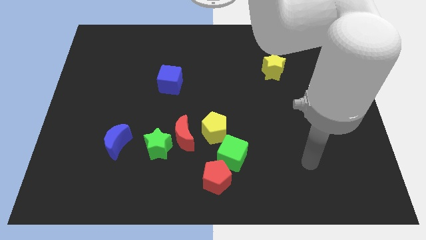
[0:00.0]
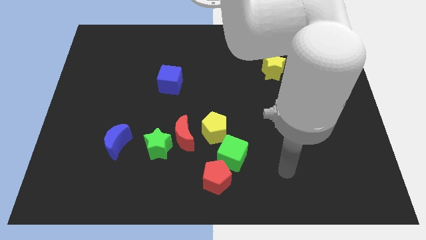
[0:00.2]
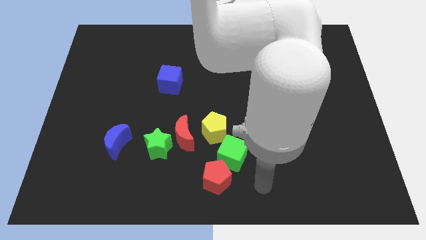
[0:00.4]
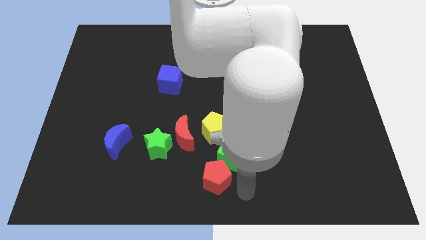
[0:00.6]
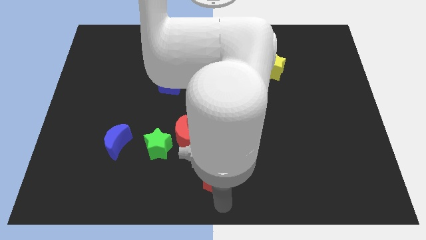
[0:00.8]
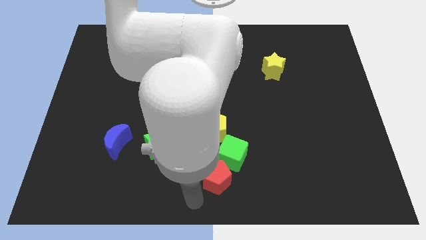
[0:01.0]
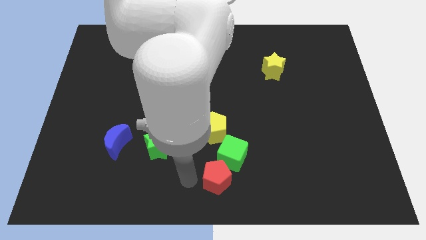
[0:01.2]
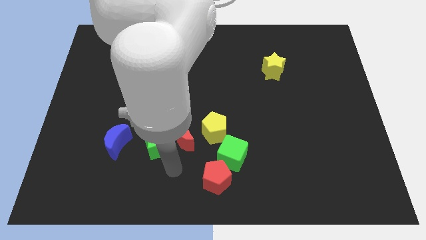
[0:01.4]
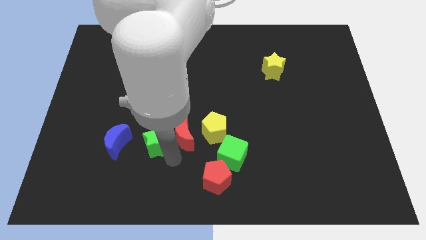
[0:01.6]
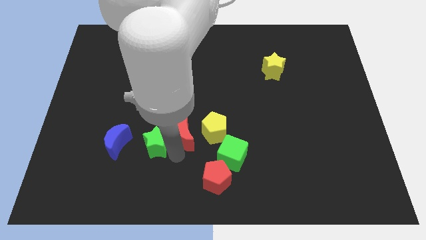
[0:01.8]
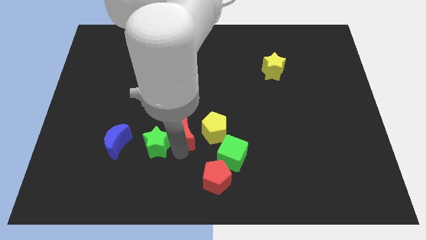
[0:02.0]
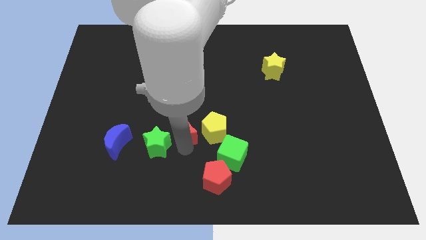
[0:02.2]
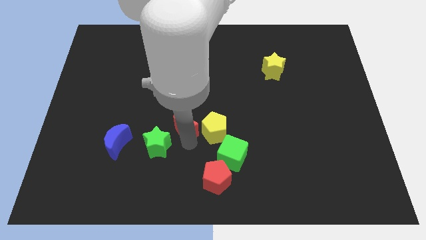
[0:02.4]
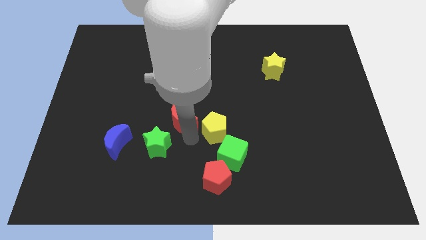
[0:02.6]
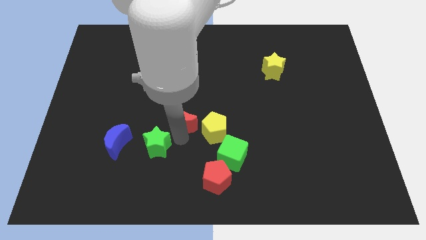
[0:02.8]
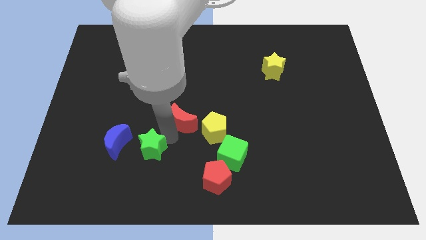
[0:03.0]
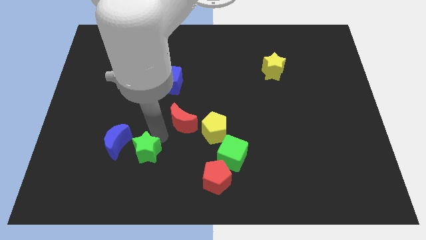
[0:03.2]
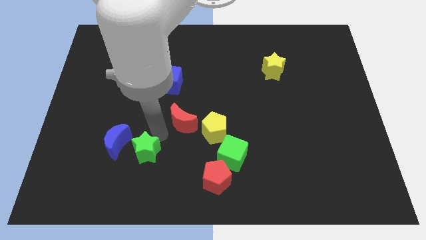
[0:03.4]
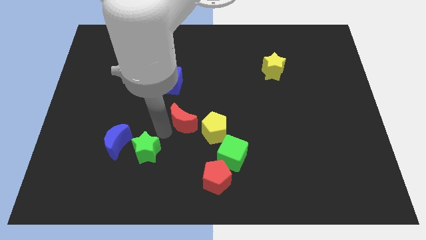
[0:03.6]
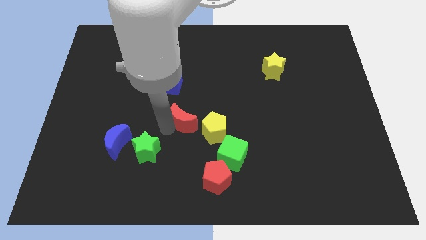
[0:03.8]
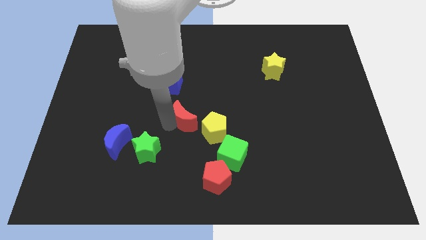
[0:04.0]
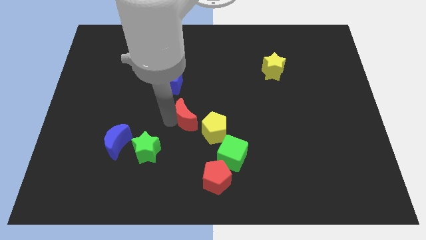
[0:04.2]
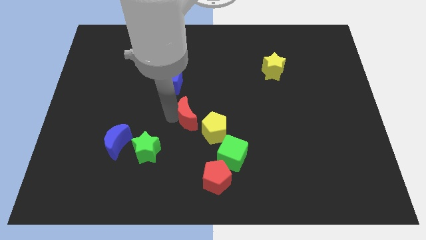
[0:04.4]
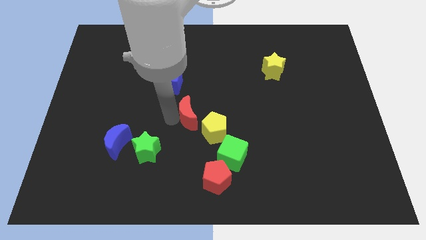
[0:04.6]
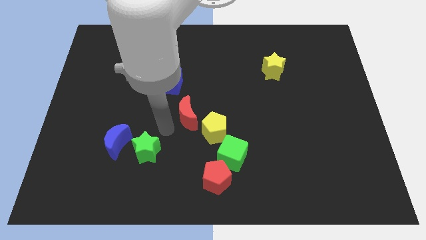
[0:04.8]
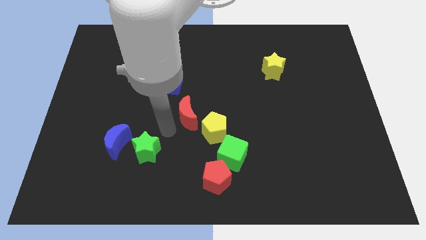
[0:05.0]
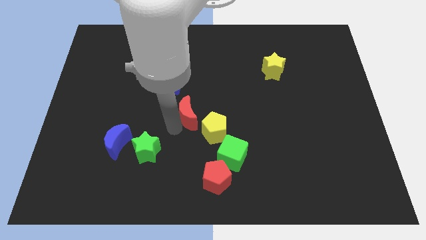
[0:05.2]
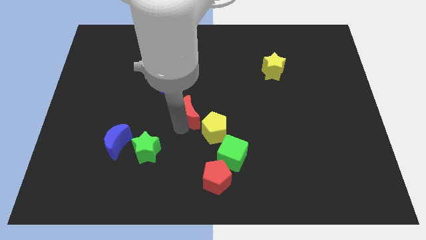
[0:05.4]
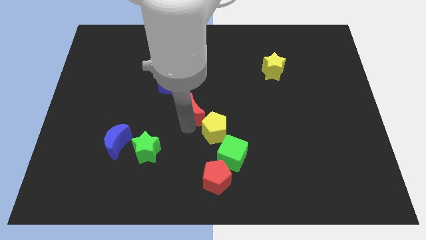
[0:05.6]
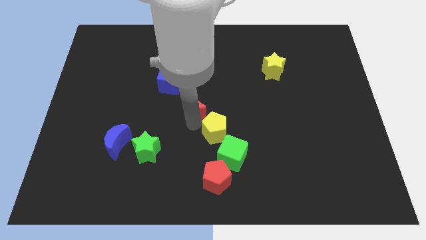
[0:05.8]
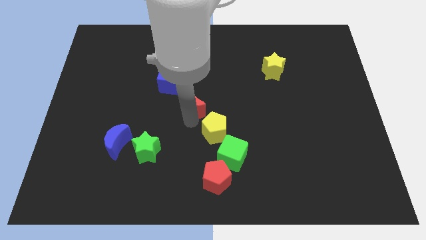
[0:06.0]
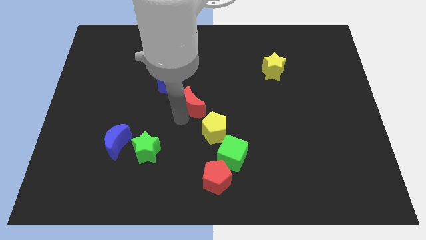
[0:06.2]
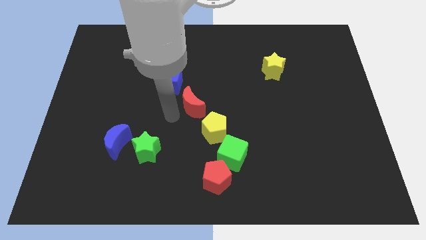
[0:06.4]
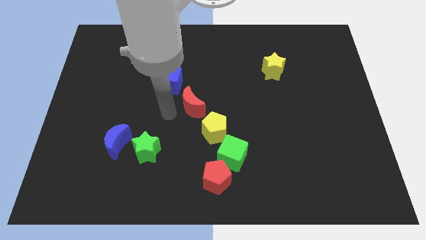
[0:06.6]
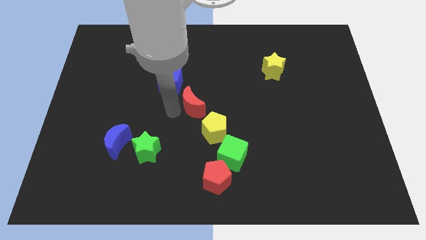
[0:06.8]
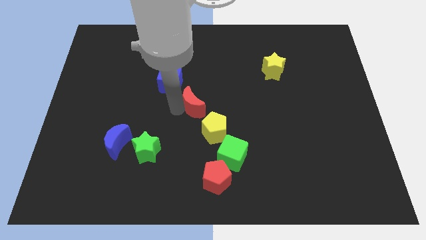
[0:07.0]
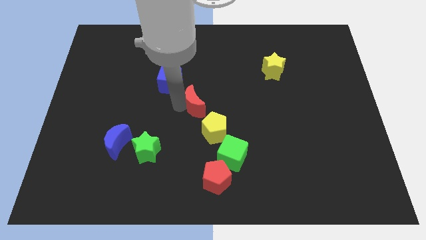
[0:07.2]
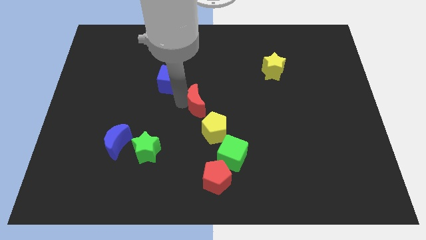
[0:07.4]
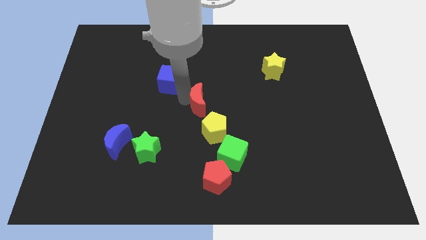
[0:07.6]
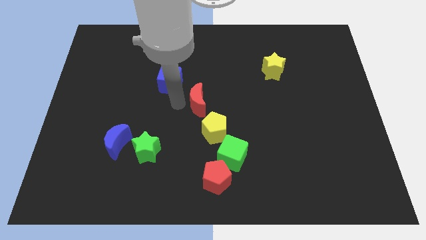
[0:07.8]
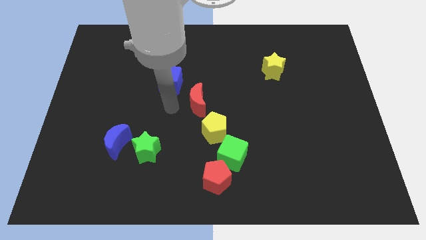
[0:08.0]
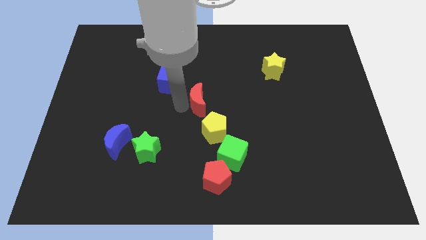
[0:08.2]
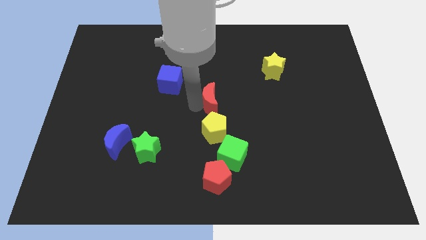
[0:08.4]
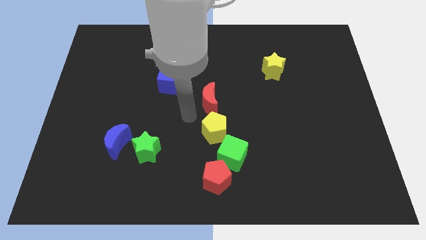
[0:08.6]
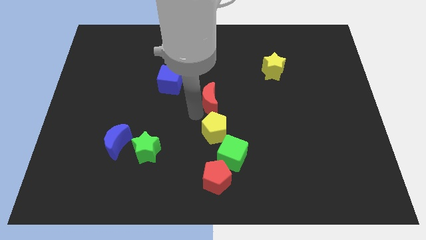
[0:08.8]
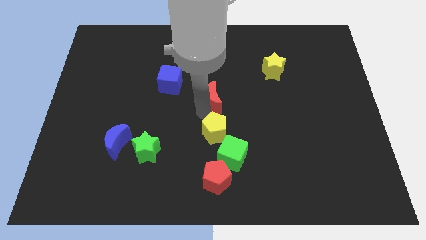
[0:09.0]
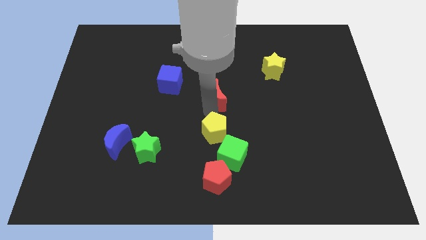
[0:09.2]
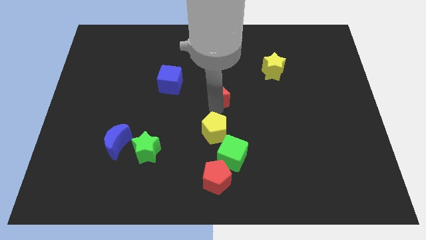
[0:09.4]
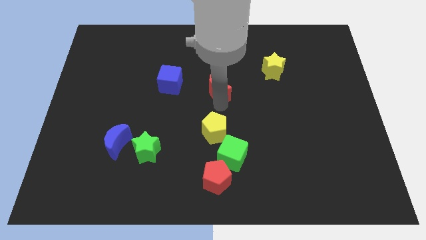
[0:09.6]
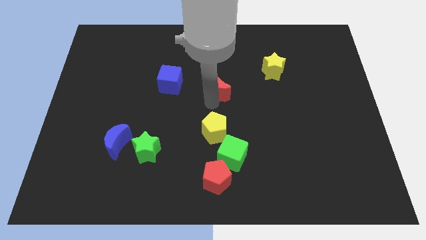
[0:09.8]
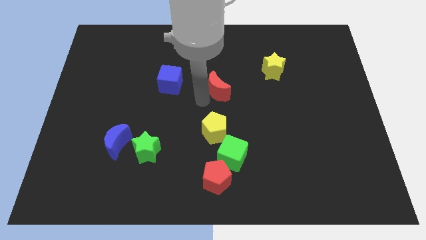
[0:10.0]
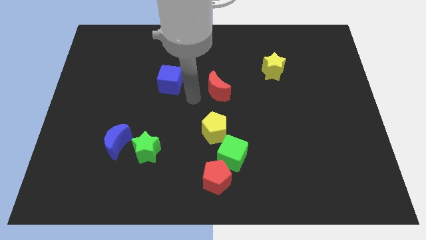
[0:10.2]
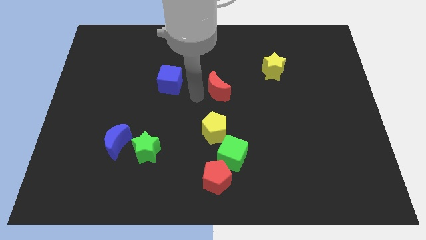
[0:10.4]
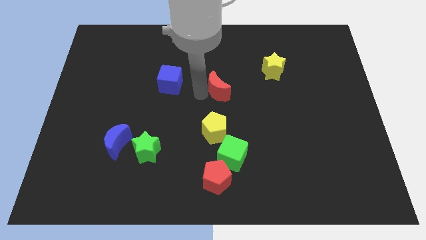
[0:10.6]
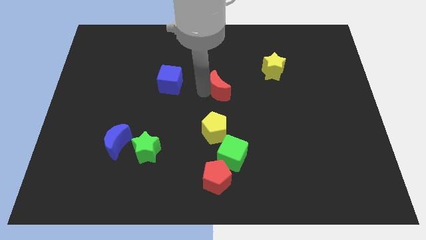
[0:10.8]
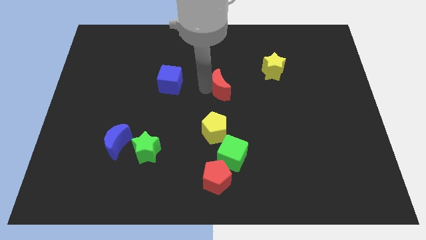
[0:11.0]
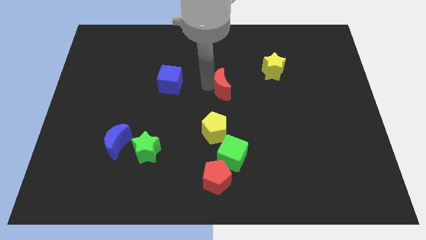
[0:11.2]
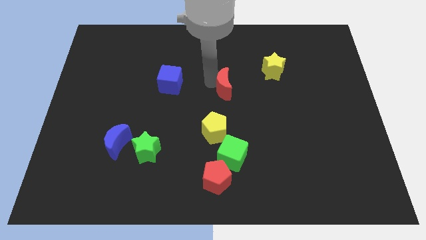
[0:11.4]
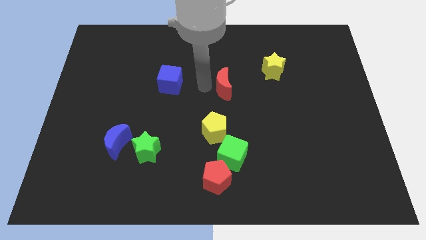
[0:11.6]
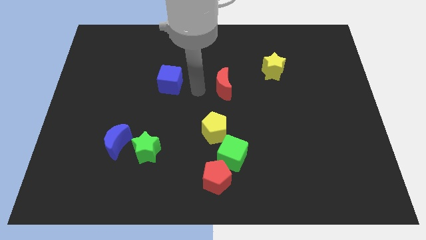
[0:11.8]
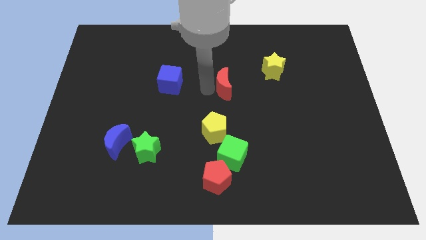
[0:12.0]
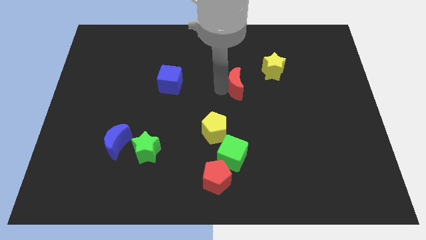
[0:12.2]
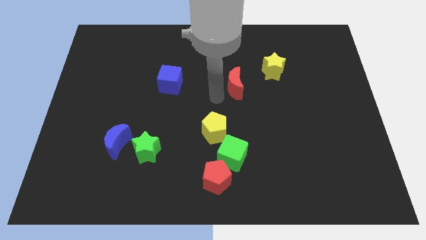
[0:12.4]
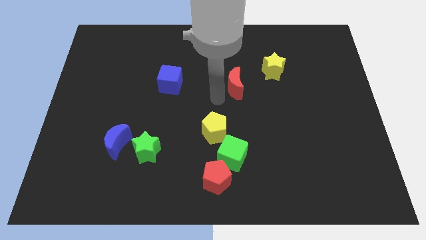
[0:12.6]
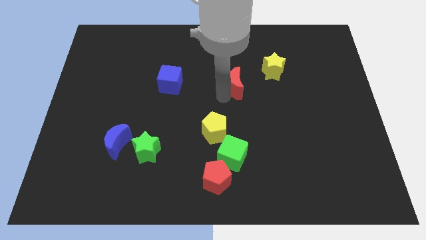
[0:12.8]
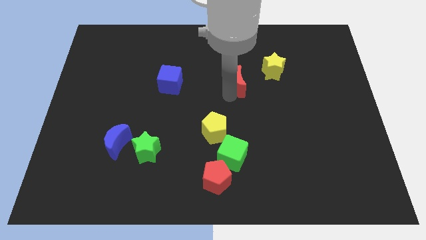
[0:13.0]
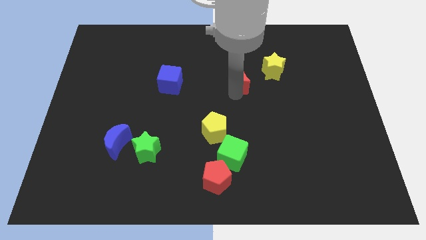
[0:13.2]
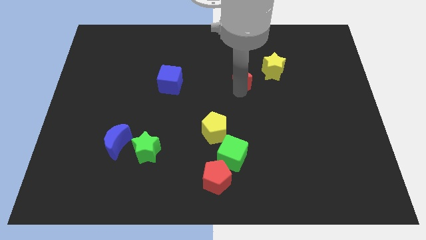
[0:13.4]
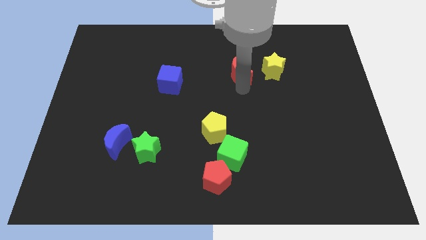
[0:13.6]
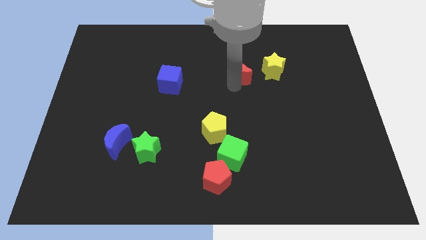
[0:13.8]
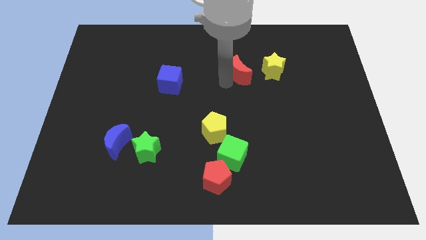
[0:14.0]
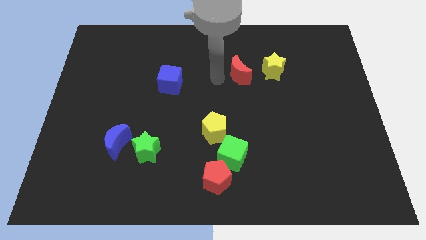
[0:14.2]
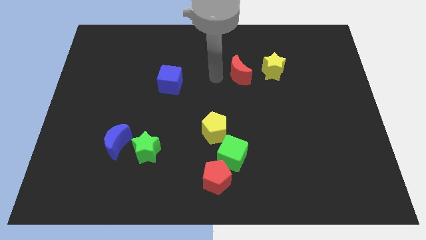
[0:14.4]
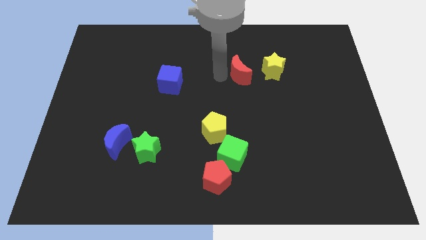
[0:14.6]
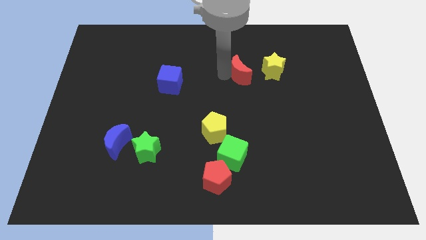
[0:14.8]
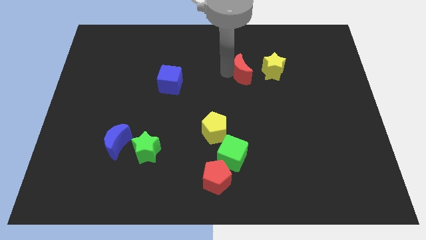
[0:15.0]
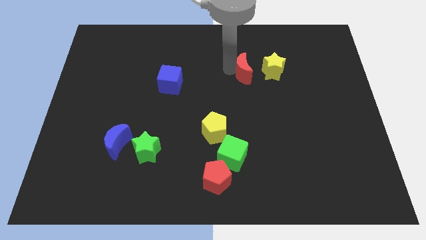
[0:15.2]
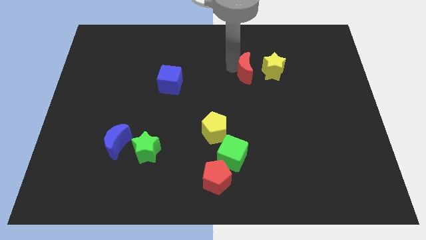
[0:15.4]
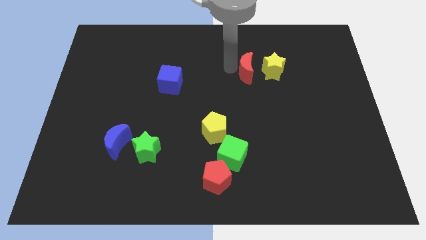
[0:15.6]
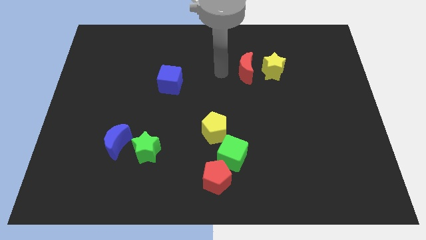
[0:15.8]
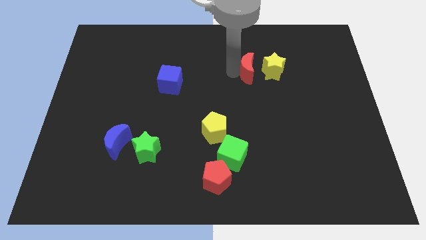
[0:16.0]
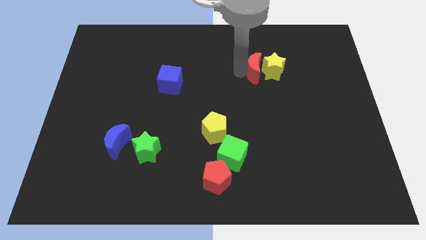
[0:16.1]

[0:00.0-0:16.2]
move the red moon close to the yellow star
